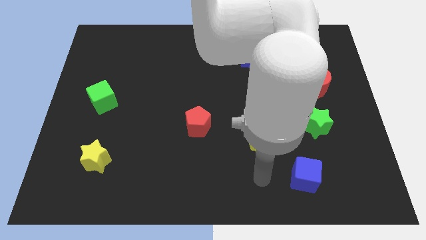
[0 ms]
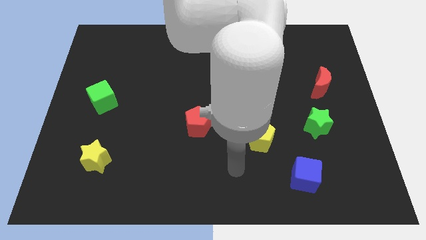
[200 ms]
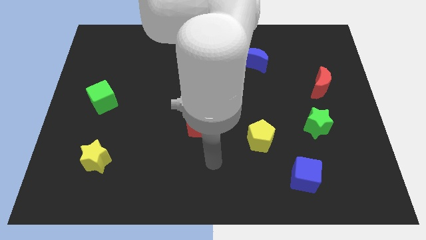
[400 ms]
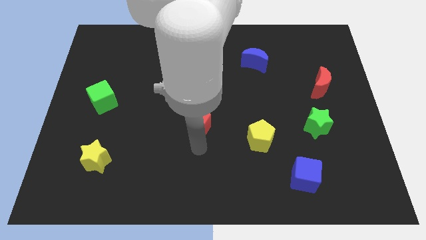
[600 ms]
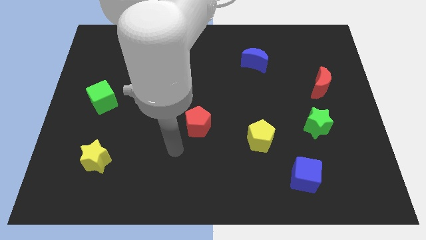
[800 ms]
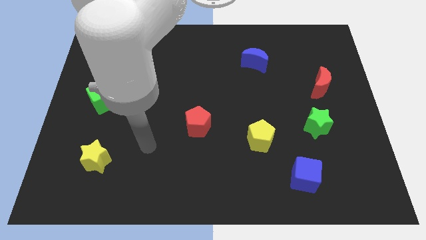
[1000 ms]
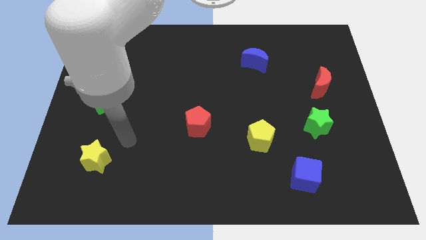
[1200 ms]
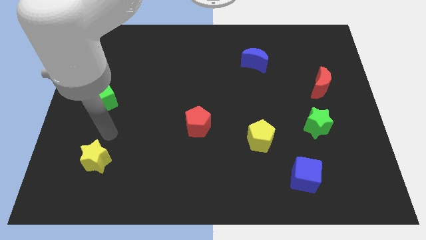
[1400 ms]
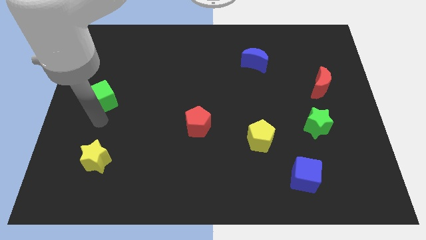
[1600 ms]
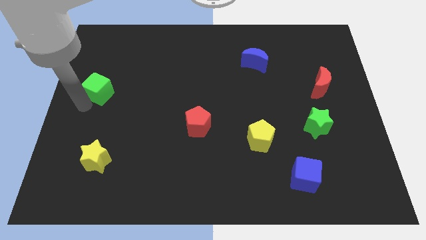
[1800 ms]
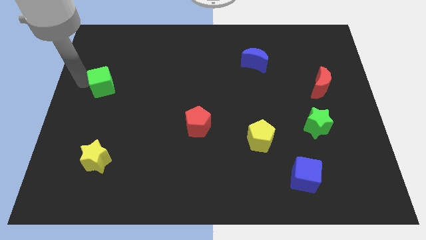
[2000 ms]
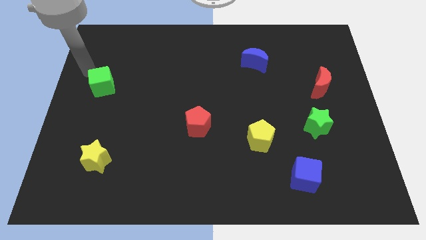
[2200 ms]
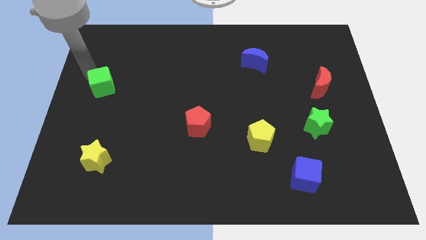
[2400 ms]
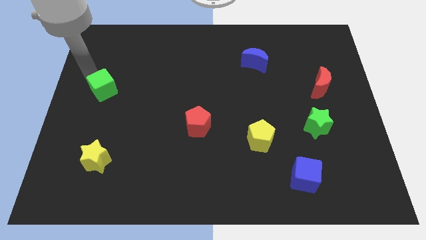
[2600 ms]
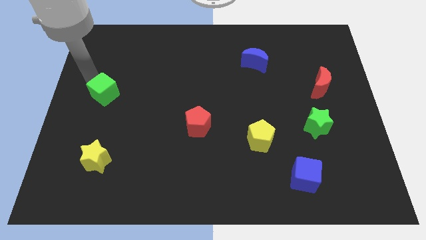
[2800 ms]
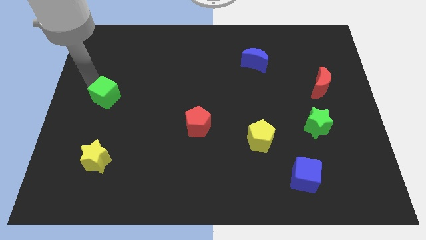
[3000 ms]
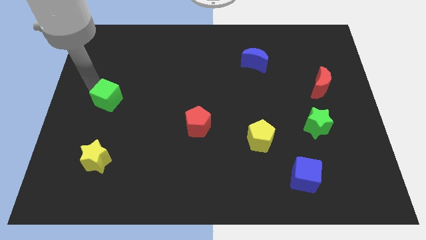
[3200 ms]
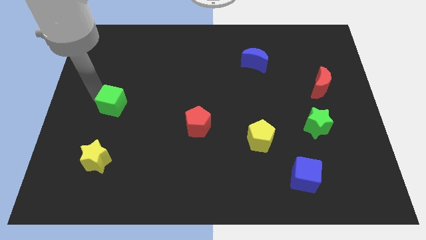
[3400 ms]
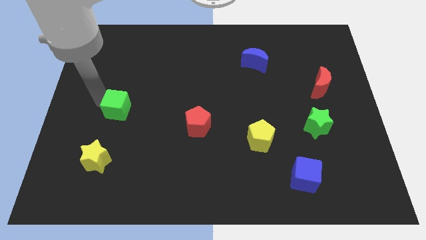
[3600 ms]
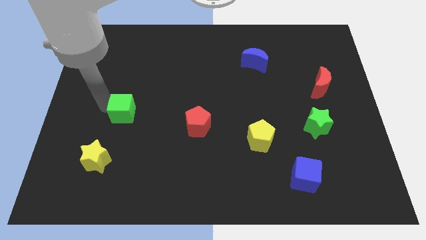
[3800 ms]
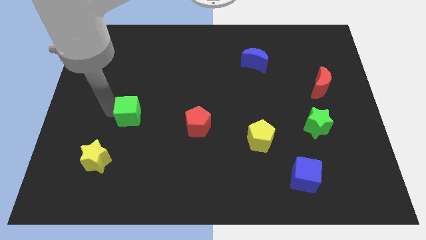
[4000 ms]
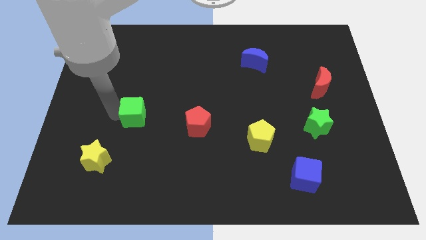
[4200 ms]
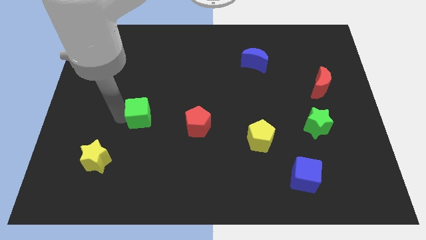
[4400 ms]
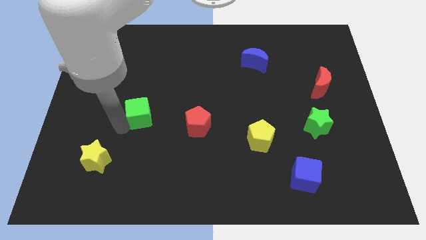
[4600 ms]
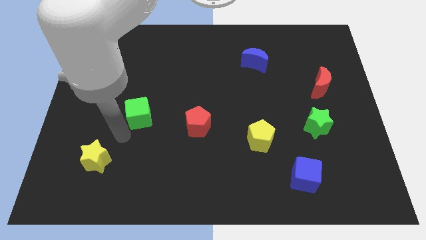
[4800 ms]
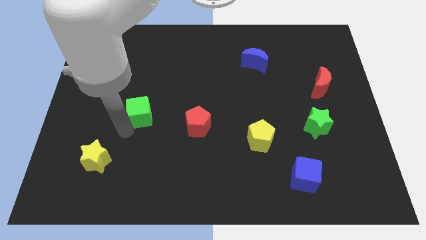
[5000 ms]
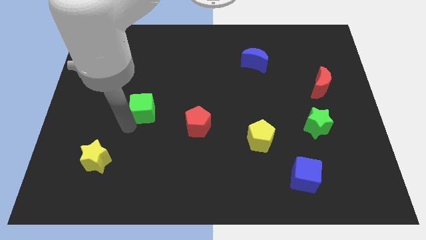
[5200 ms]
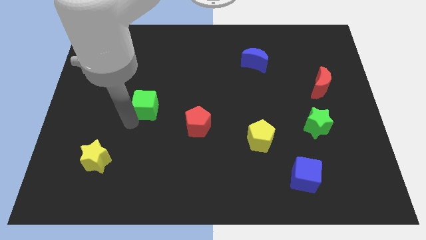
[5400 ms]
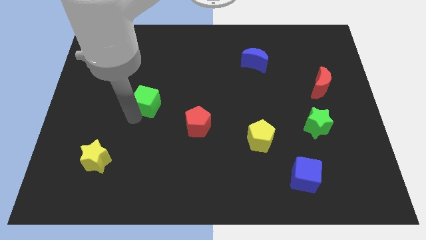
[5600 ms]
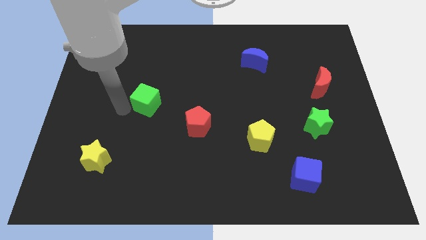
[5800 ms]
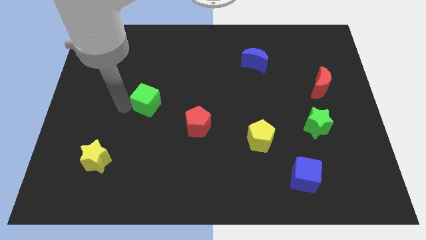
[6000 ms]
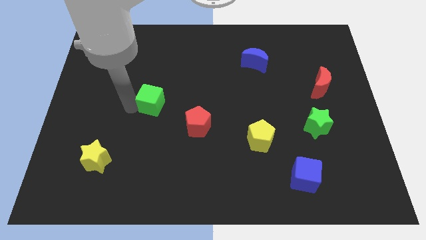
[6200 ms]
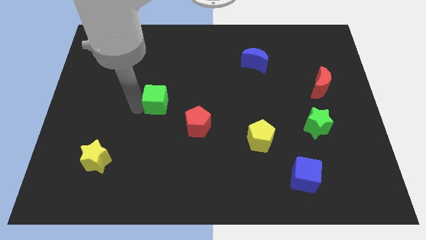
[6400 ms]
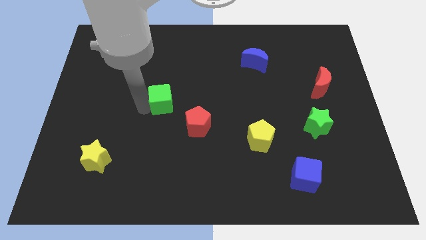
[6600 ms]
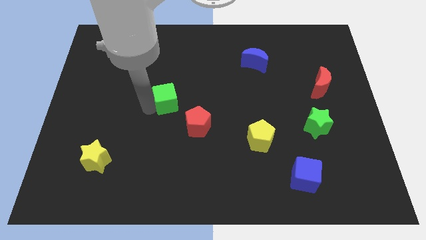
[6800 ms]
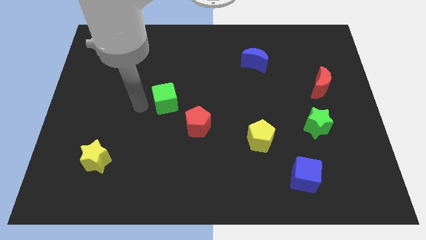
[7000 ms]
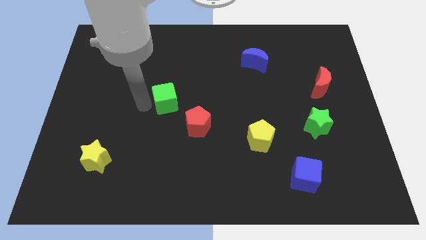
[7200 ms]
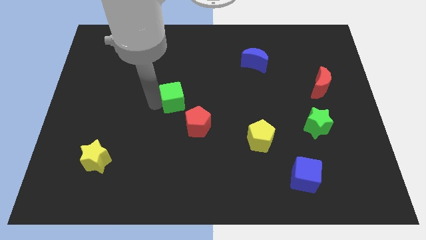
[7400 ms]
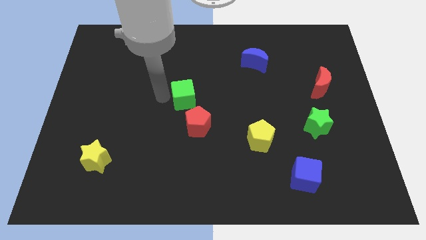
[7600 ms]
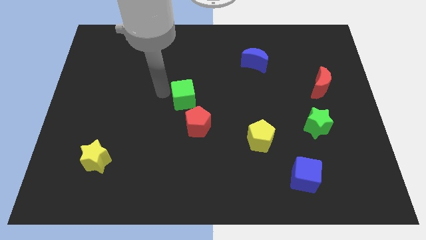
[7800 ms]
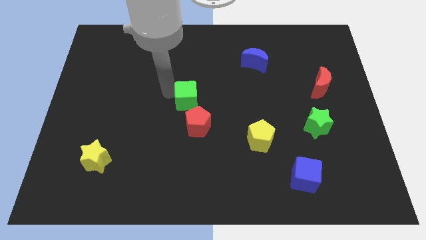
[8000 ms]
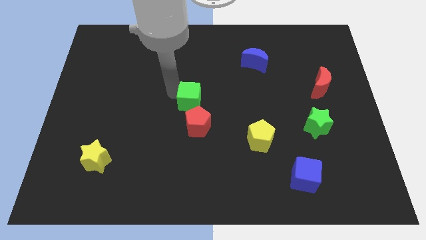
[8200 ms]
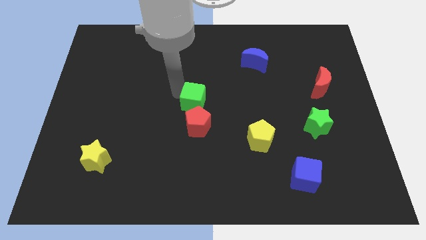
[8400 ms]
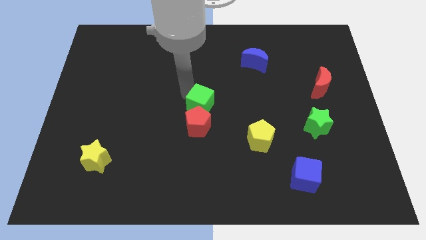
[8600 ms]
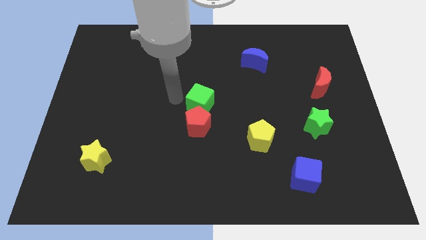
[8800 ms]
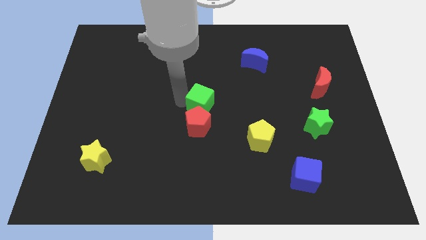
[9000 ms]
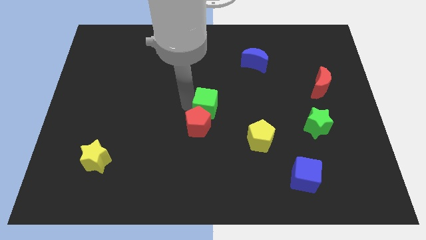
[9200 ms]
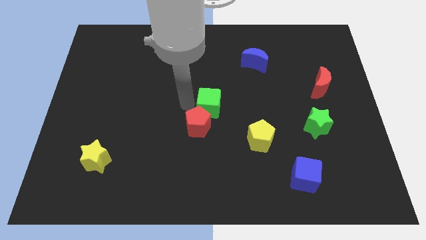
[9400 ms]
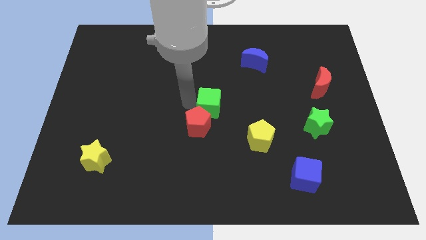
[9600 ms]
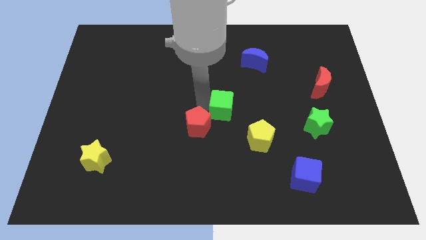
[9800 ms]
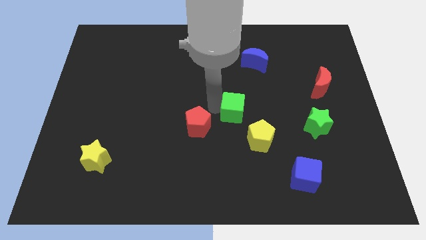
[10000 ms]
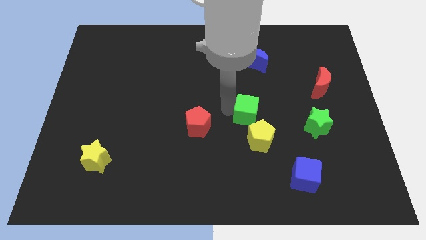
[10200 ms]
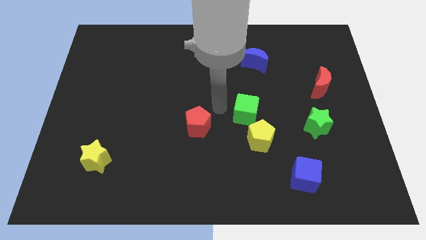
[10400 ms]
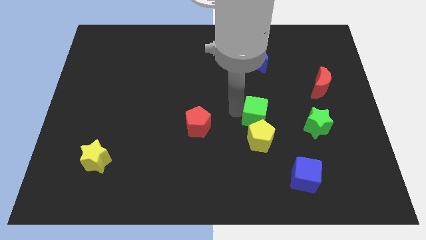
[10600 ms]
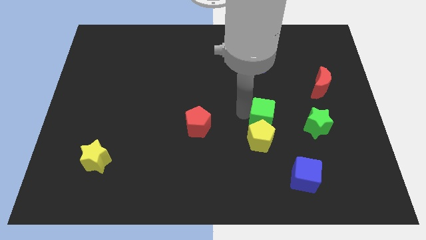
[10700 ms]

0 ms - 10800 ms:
push the green cube to the top right of the yellow pentagon

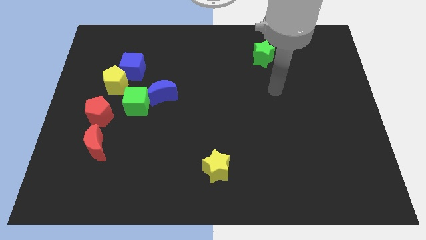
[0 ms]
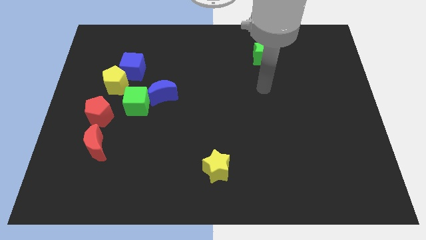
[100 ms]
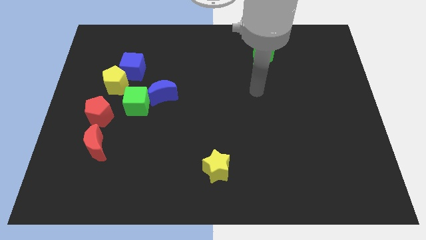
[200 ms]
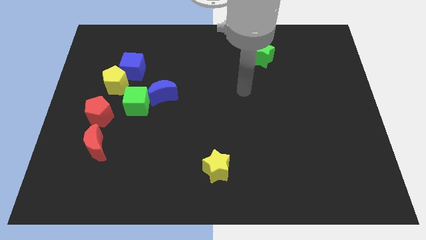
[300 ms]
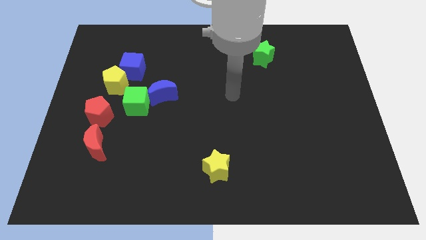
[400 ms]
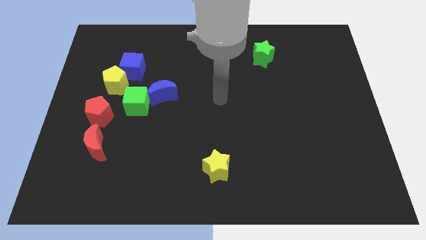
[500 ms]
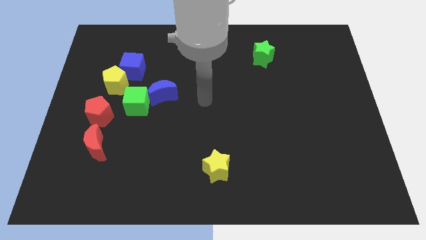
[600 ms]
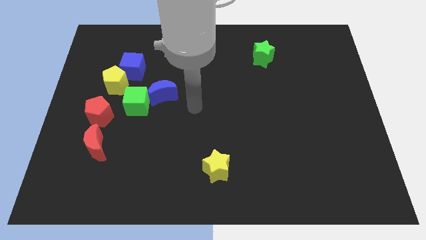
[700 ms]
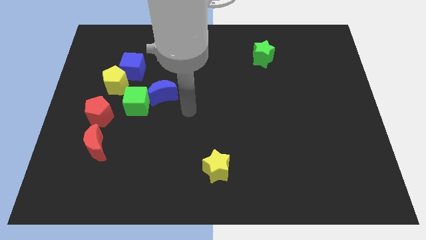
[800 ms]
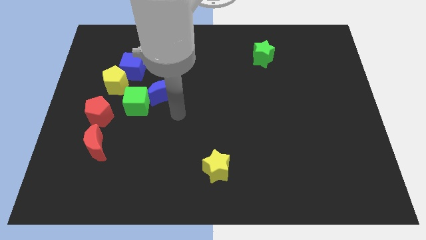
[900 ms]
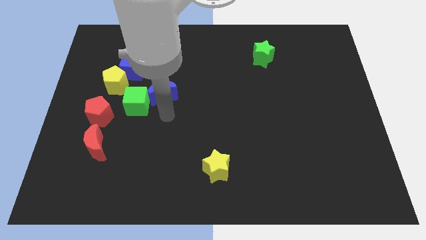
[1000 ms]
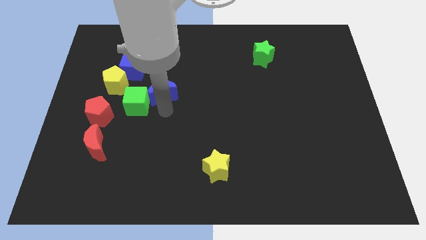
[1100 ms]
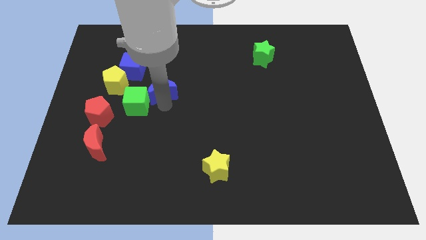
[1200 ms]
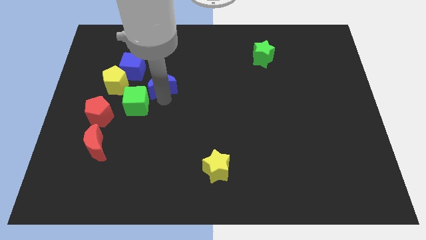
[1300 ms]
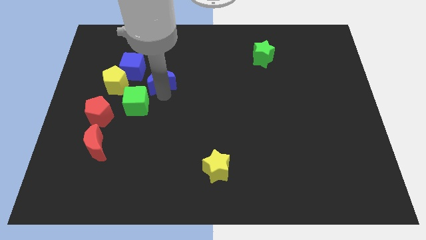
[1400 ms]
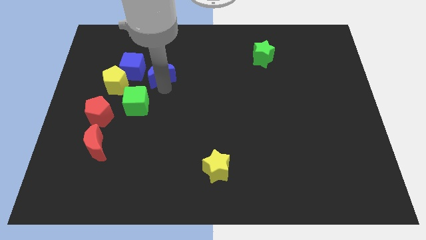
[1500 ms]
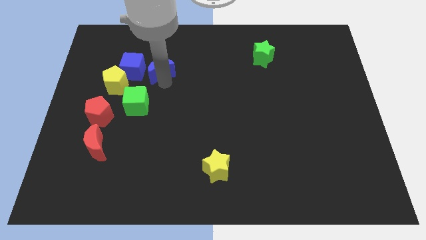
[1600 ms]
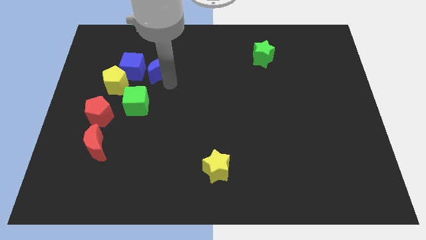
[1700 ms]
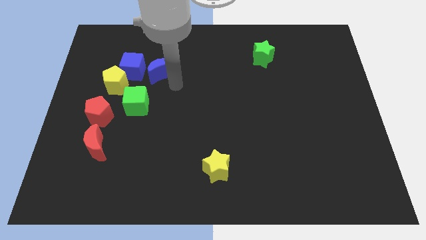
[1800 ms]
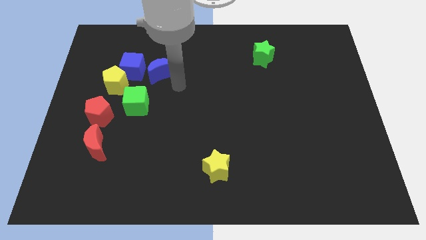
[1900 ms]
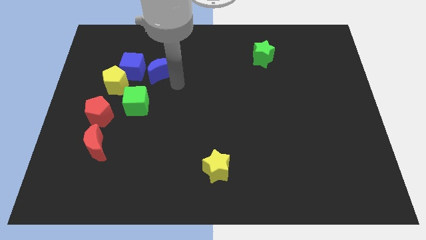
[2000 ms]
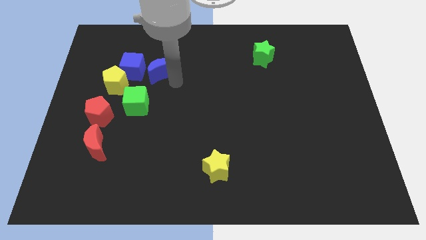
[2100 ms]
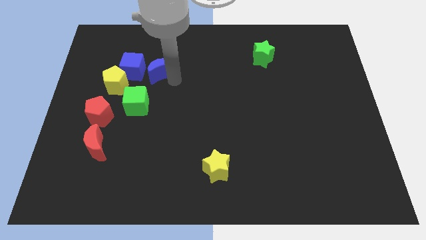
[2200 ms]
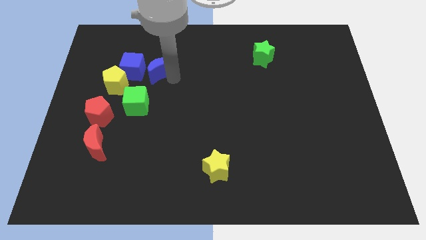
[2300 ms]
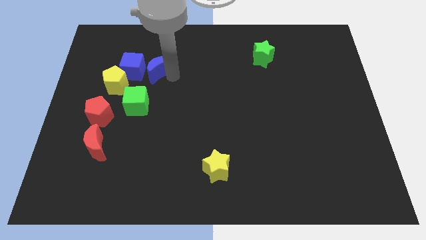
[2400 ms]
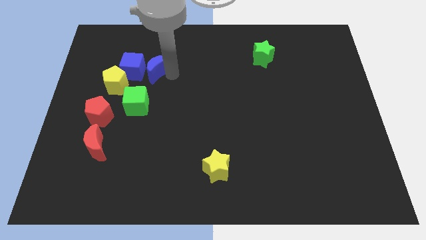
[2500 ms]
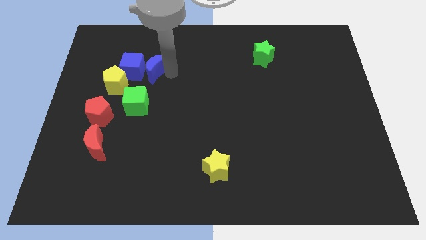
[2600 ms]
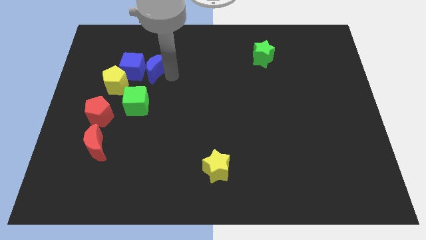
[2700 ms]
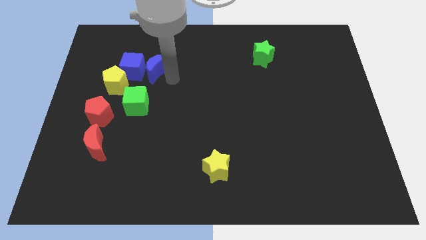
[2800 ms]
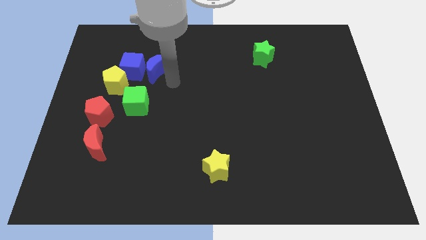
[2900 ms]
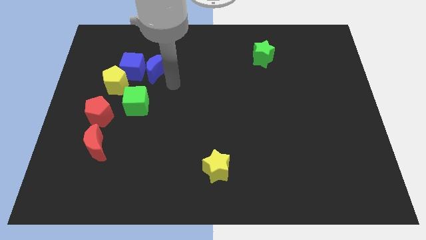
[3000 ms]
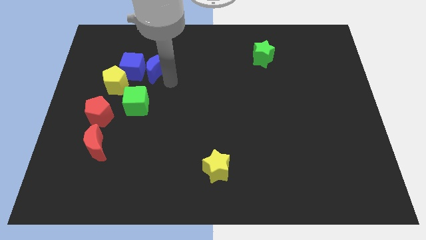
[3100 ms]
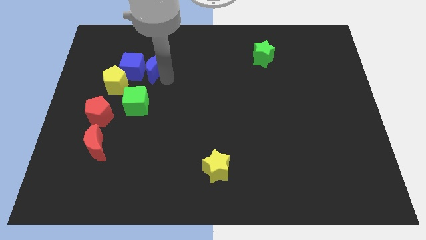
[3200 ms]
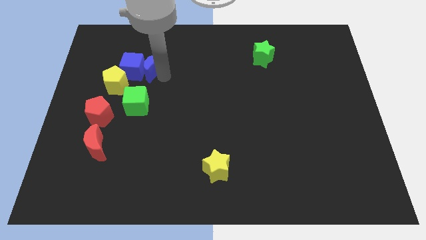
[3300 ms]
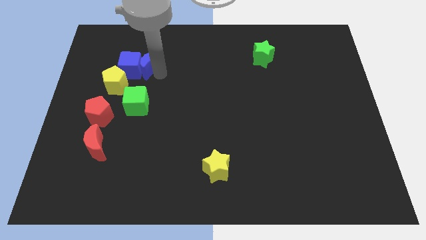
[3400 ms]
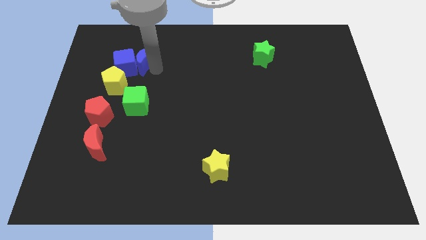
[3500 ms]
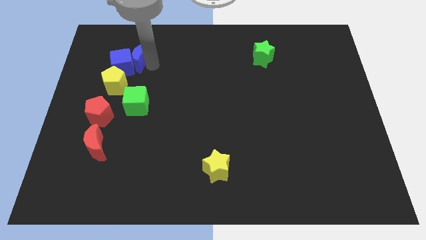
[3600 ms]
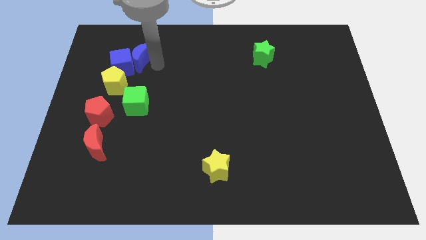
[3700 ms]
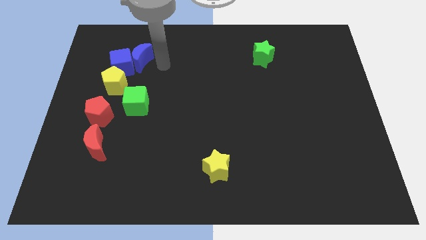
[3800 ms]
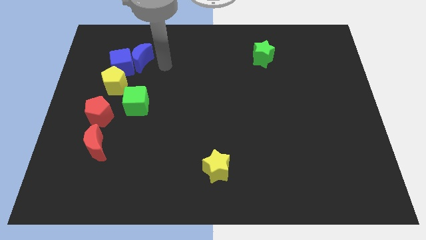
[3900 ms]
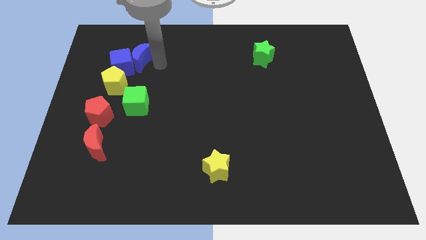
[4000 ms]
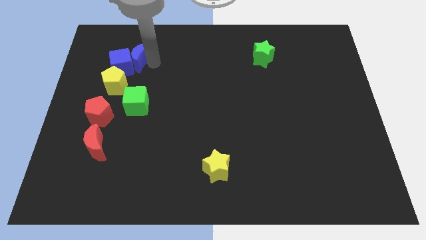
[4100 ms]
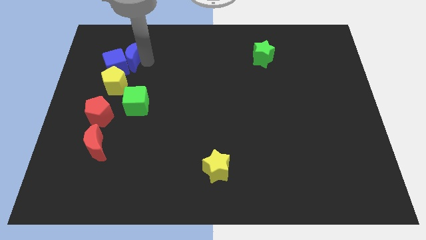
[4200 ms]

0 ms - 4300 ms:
move the blue moon to the top of the yellow pentagon
